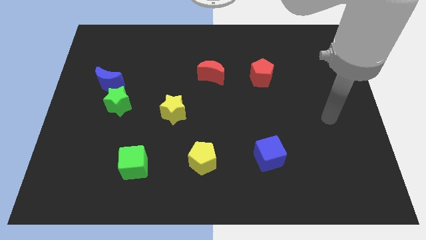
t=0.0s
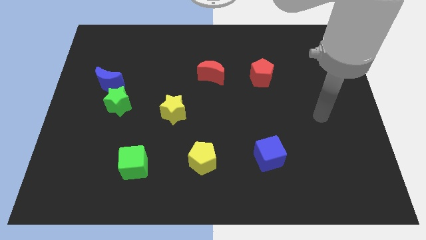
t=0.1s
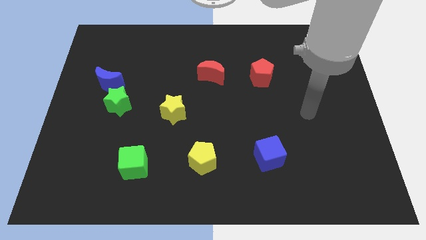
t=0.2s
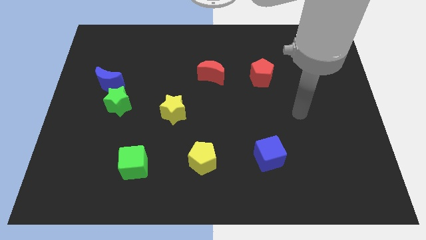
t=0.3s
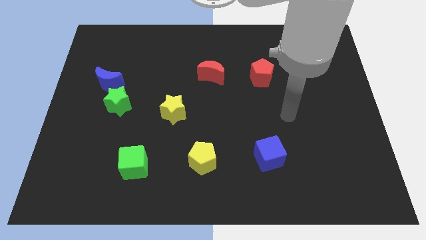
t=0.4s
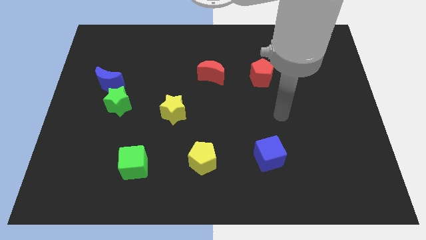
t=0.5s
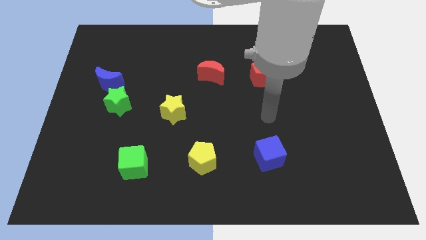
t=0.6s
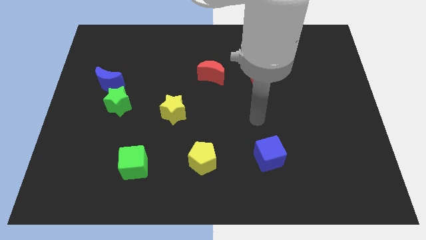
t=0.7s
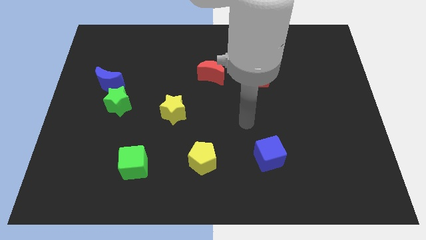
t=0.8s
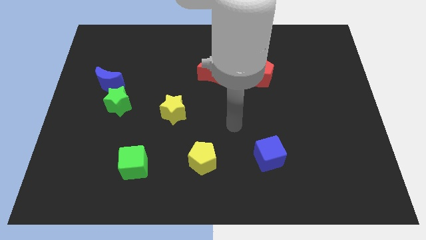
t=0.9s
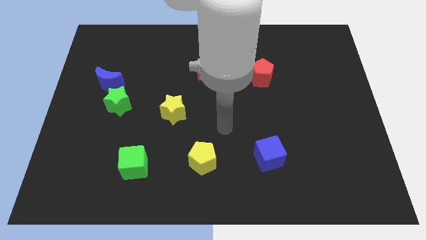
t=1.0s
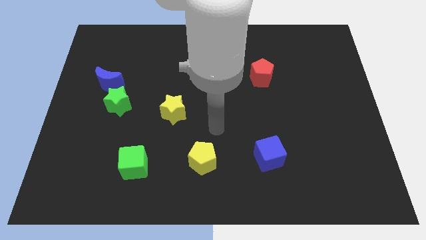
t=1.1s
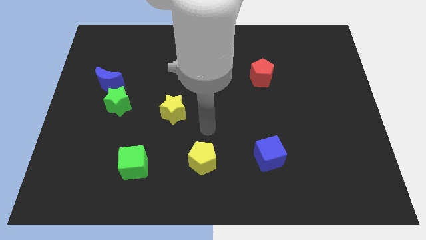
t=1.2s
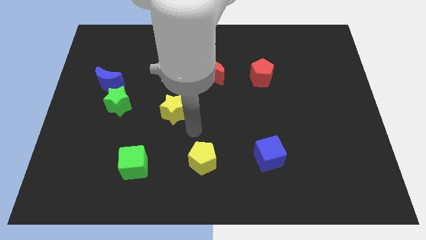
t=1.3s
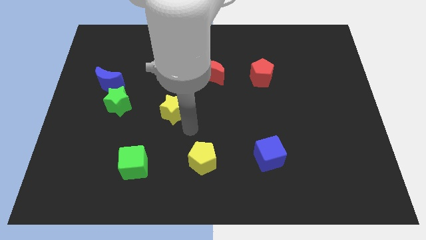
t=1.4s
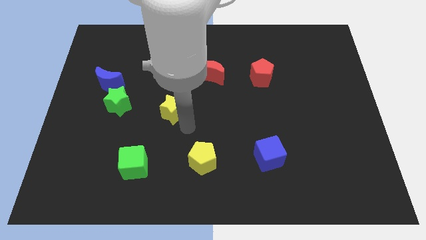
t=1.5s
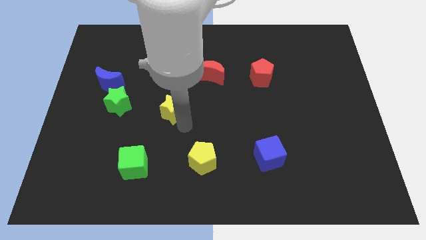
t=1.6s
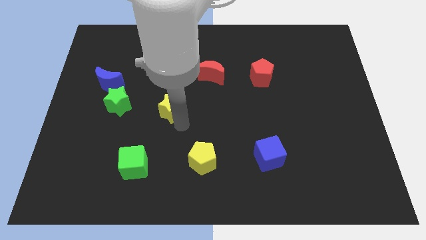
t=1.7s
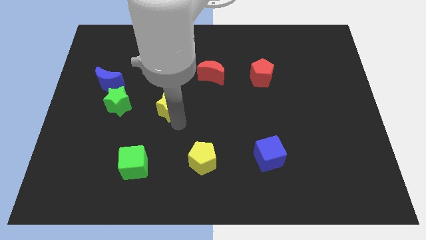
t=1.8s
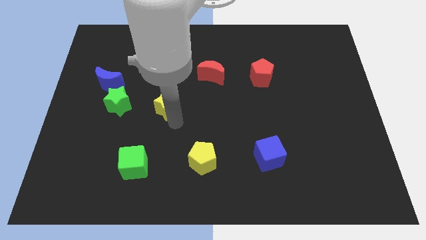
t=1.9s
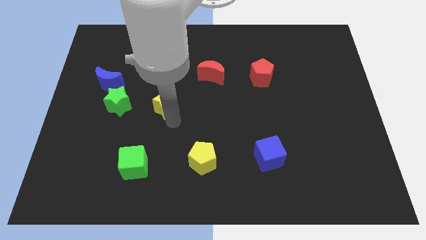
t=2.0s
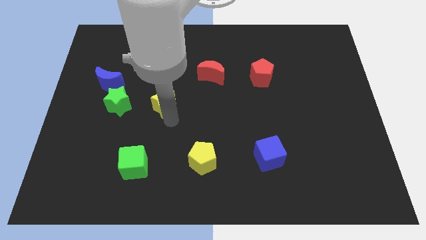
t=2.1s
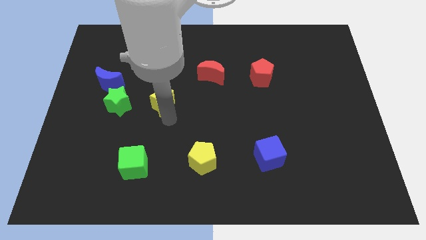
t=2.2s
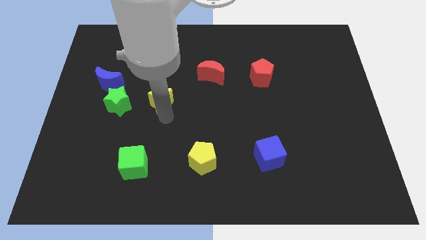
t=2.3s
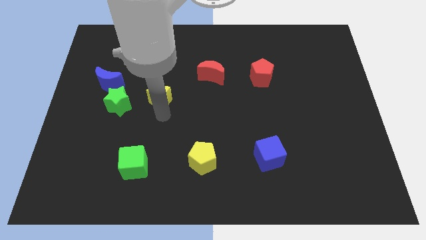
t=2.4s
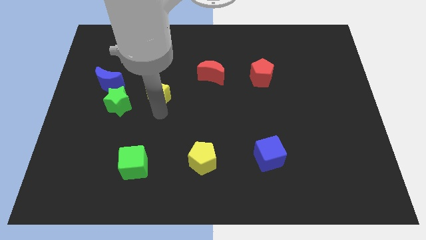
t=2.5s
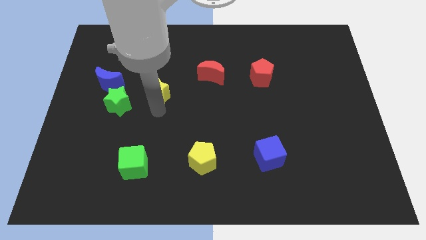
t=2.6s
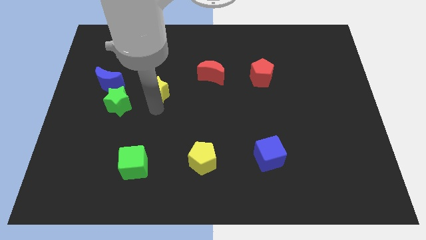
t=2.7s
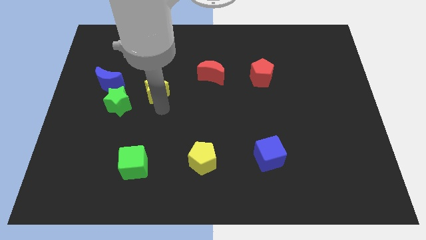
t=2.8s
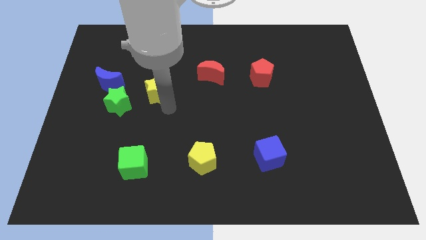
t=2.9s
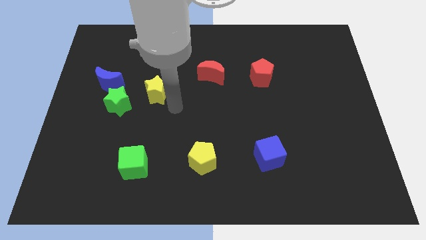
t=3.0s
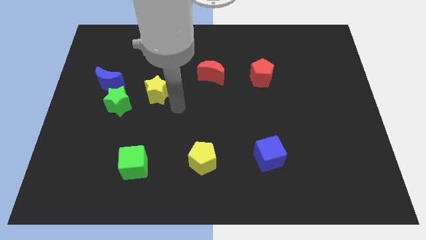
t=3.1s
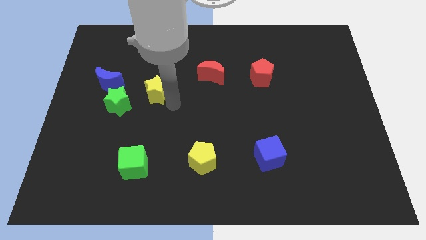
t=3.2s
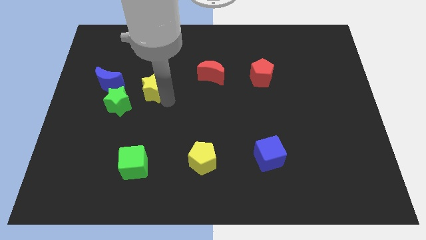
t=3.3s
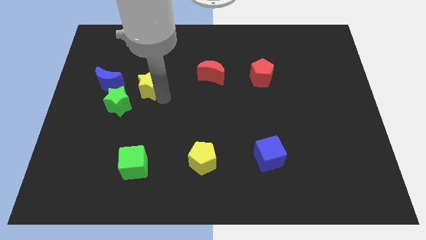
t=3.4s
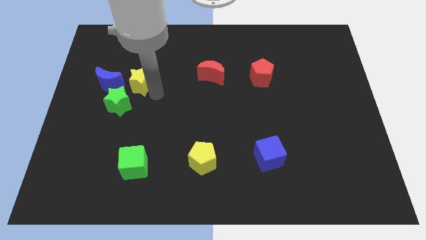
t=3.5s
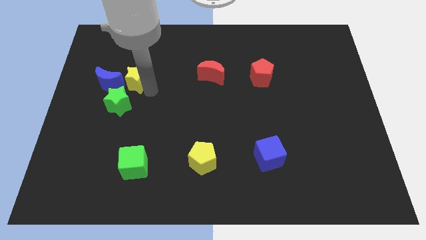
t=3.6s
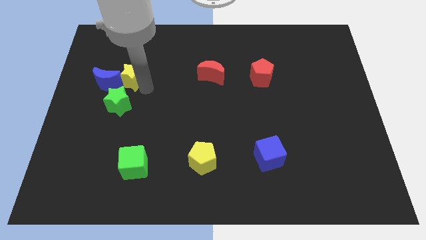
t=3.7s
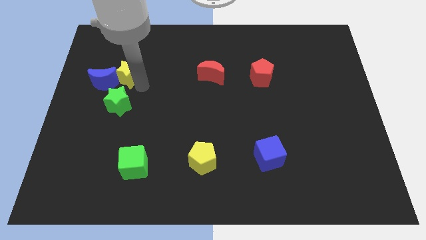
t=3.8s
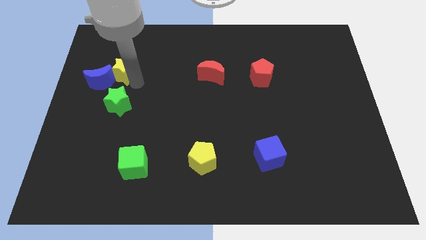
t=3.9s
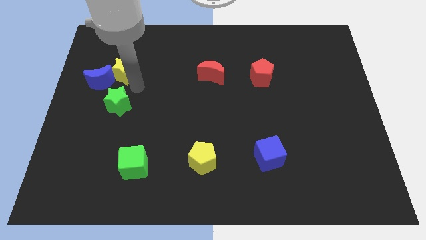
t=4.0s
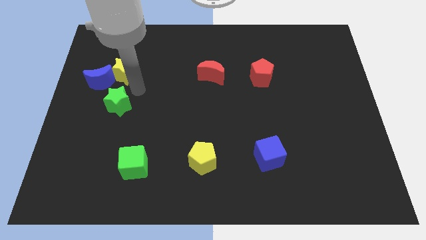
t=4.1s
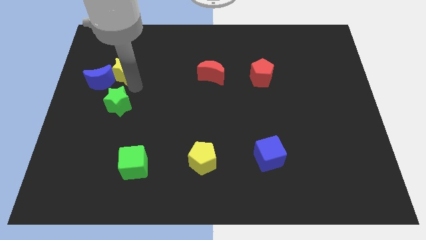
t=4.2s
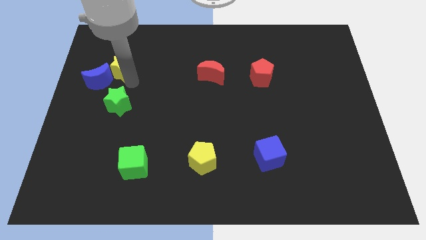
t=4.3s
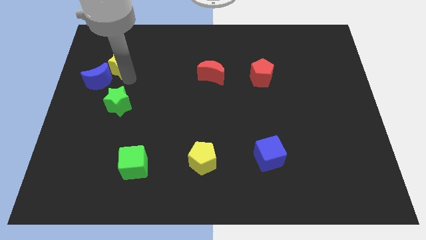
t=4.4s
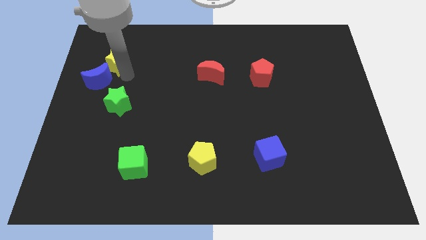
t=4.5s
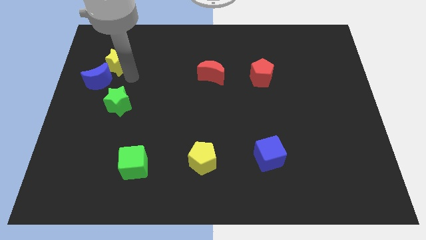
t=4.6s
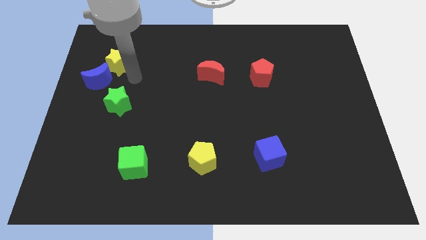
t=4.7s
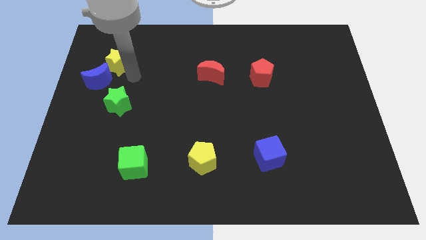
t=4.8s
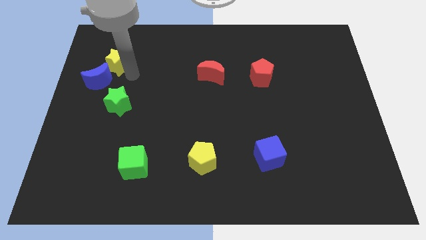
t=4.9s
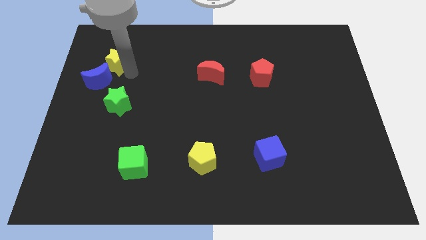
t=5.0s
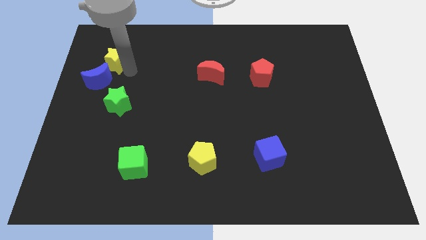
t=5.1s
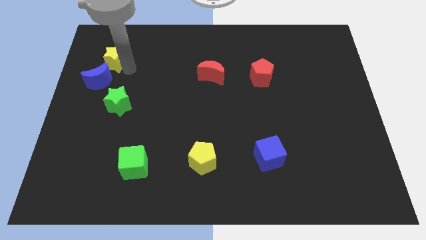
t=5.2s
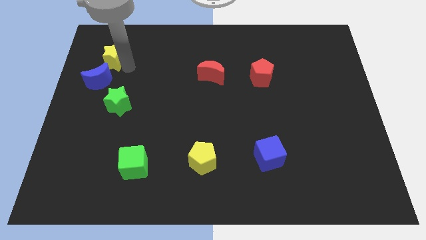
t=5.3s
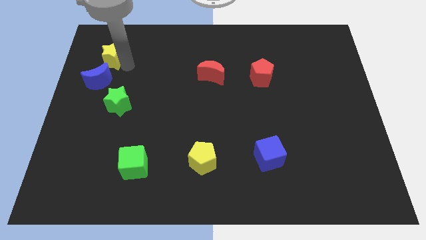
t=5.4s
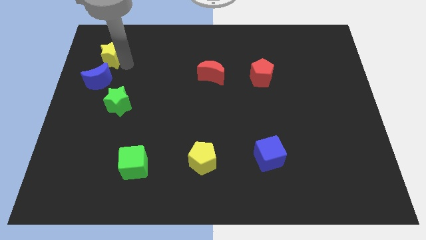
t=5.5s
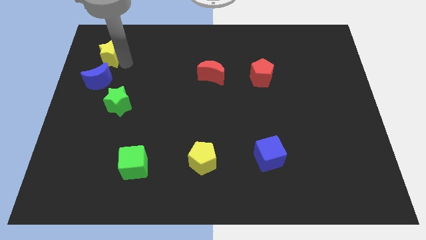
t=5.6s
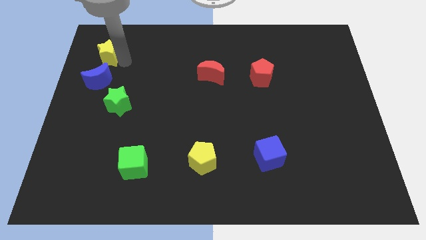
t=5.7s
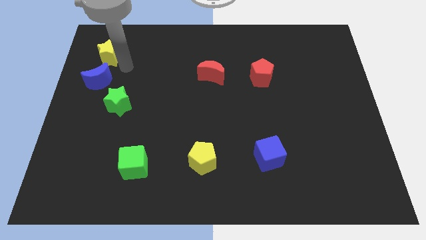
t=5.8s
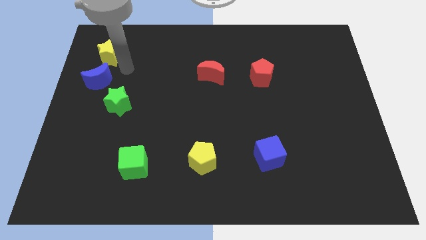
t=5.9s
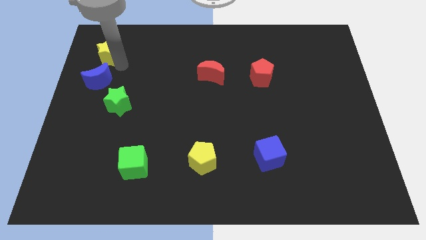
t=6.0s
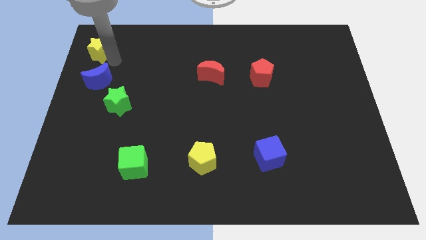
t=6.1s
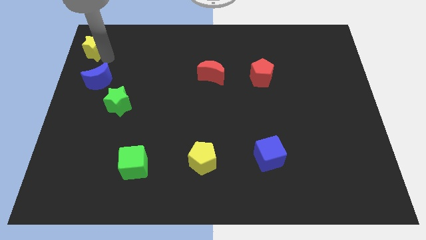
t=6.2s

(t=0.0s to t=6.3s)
move the yellow star to the top left of the board
